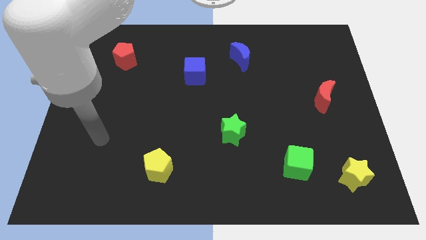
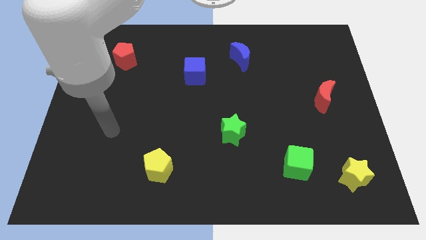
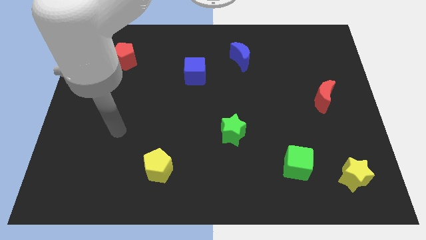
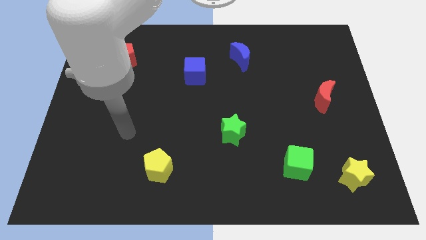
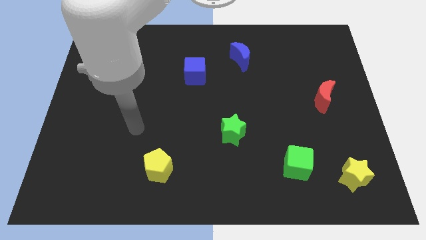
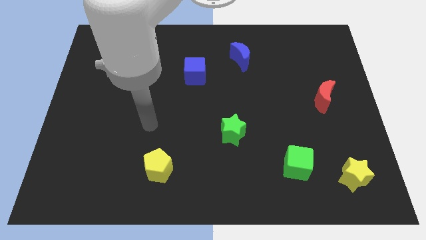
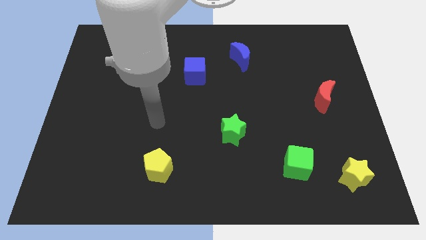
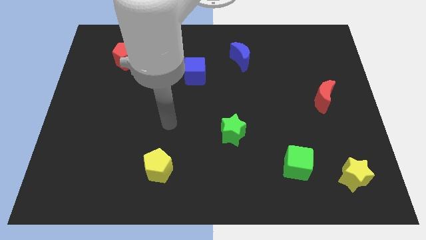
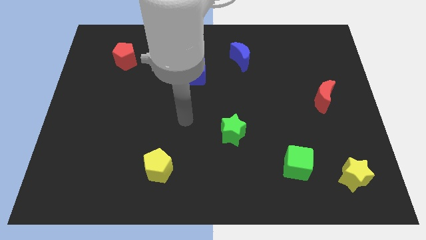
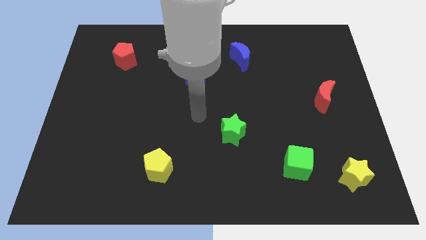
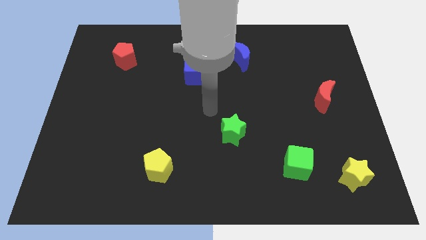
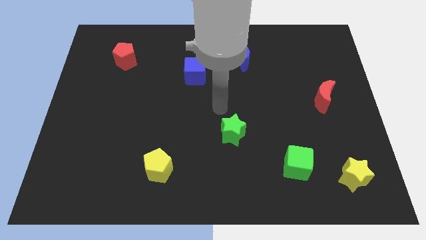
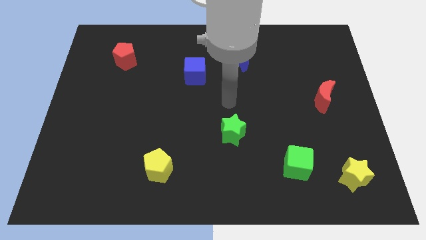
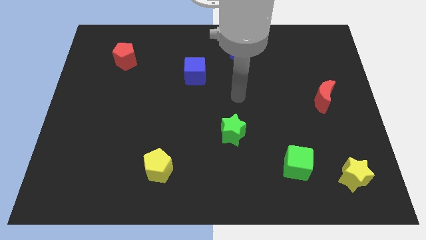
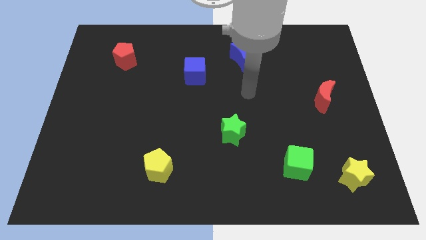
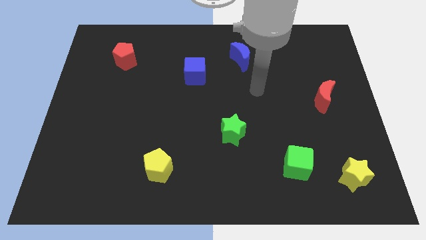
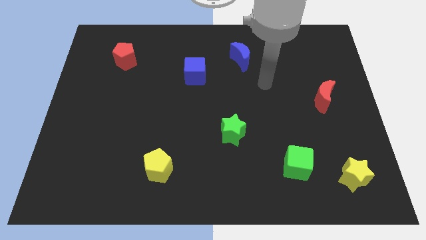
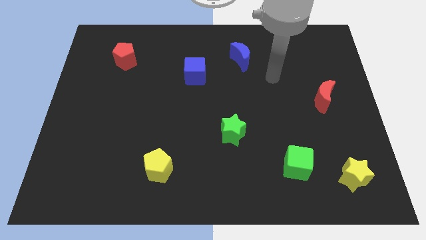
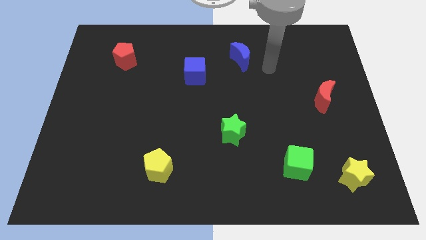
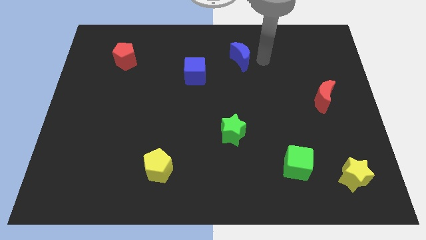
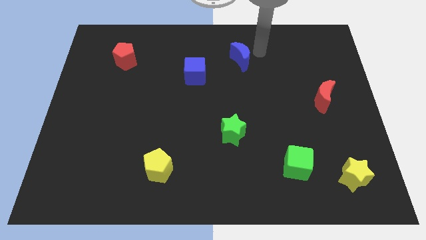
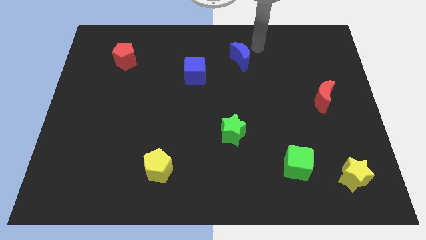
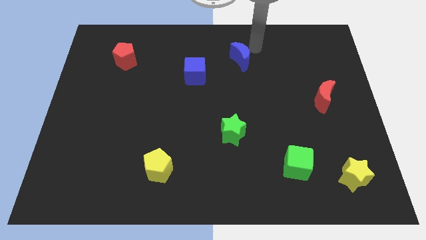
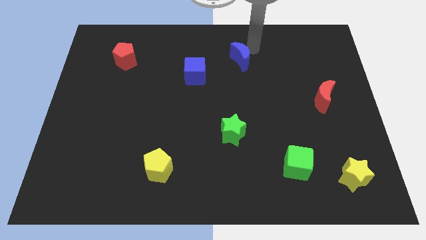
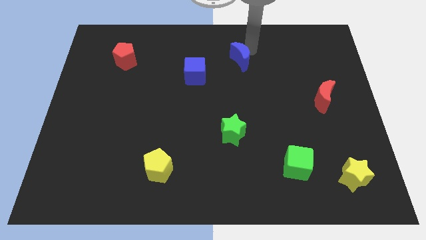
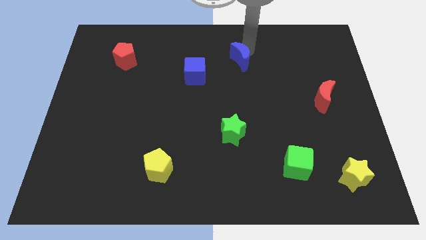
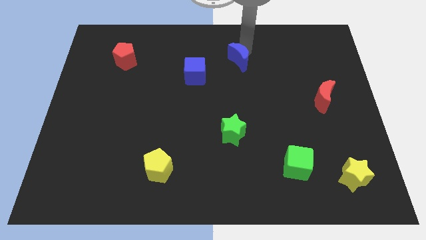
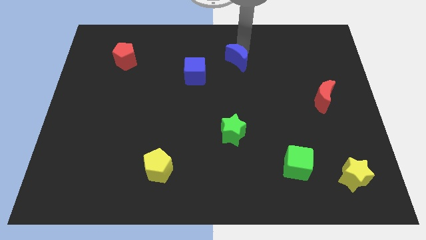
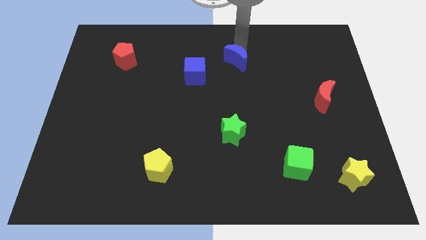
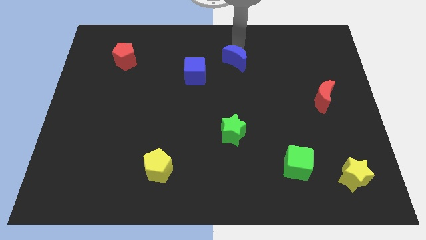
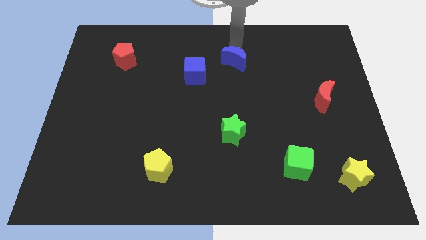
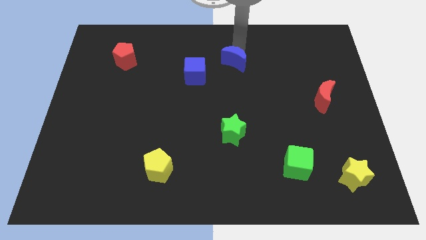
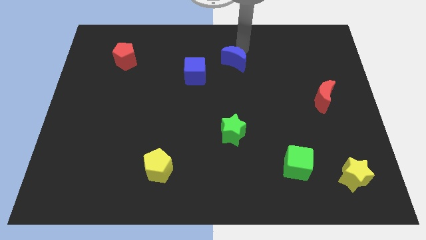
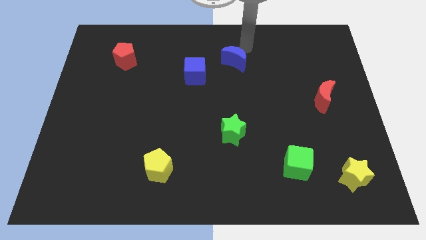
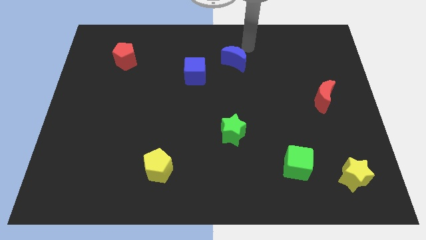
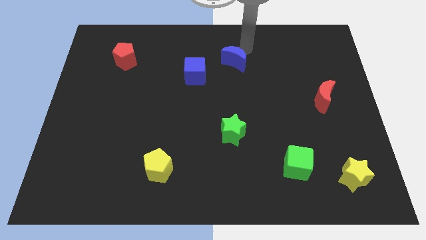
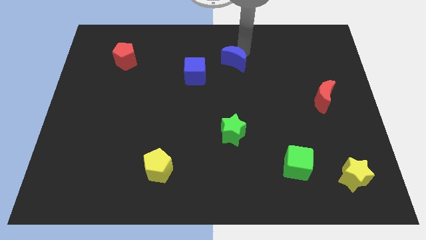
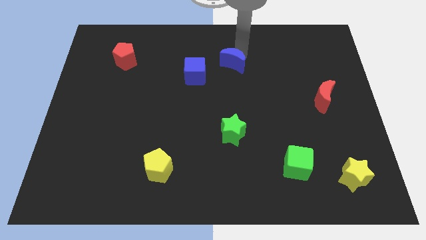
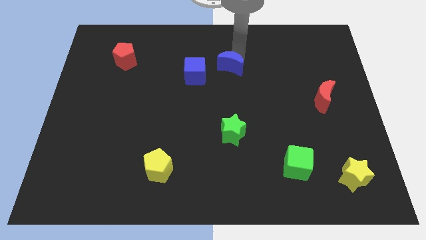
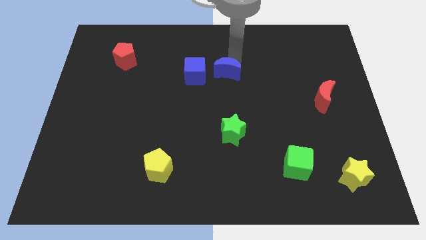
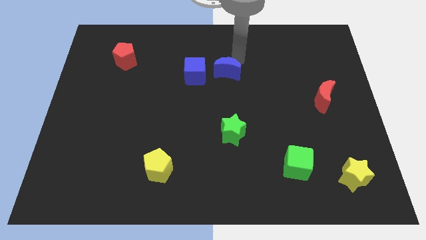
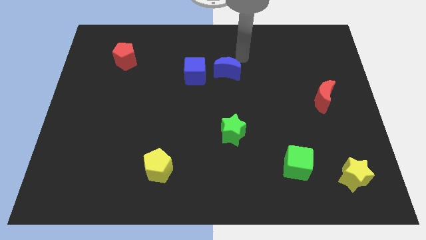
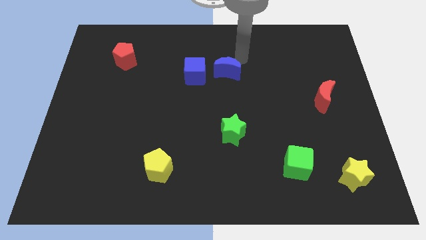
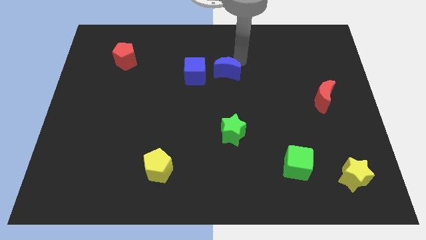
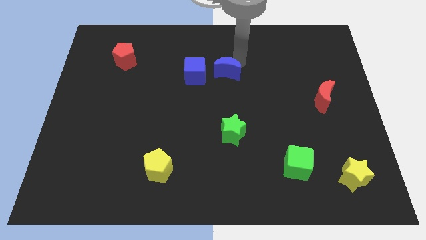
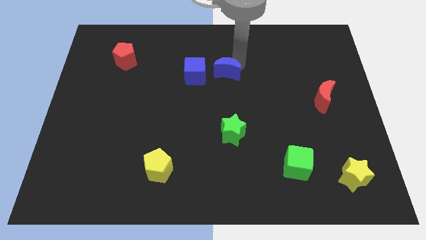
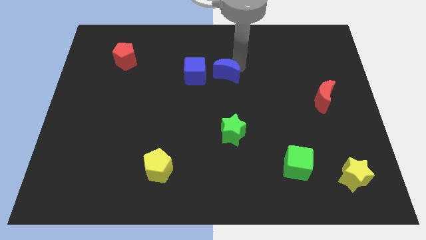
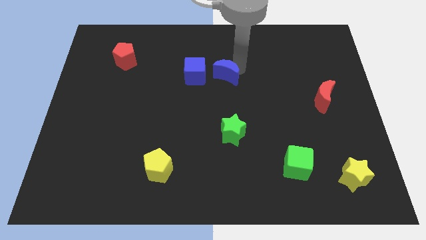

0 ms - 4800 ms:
slide the blue moon somewhat down and left

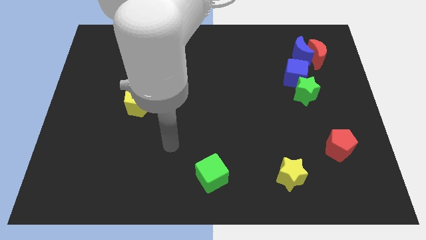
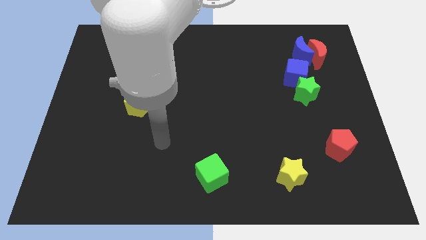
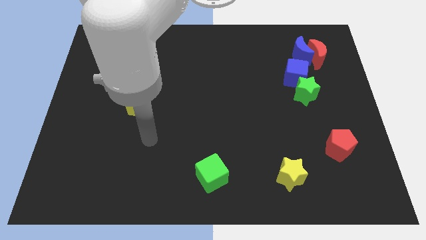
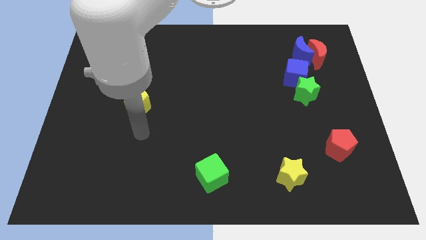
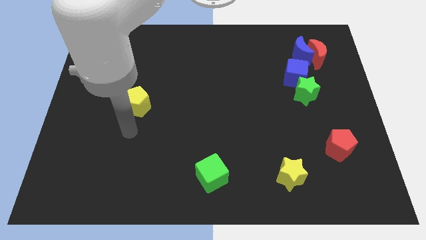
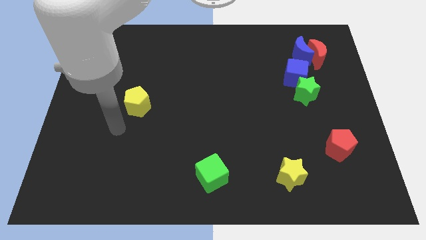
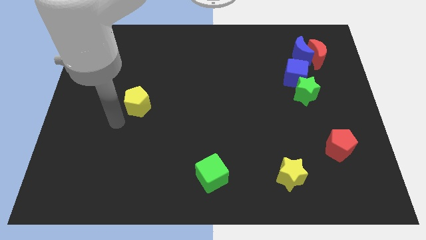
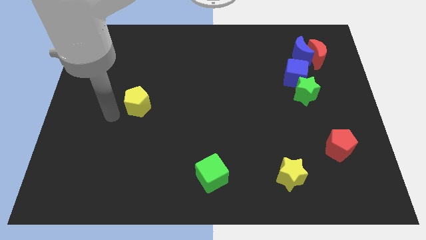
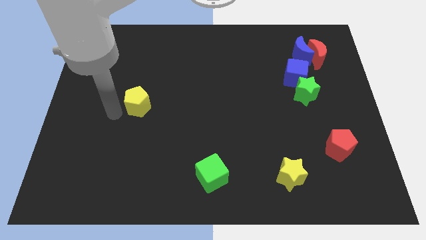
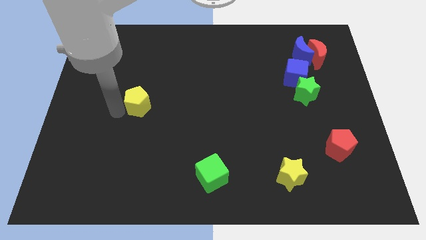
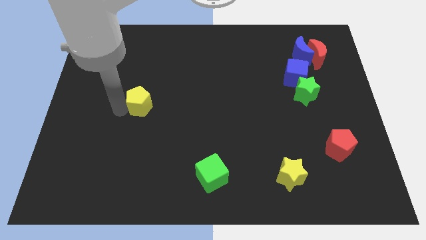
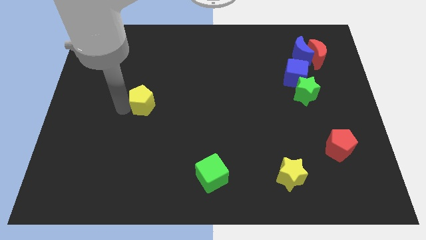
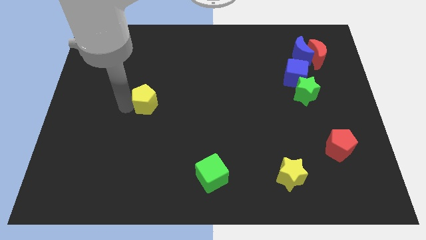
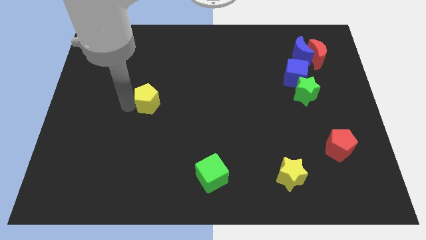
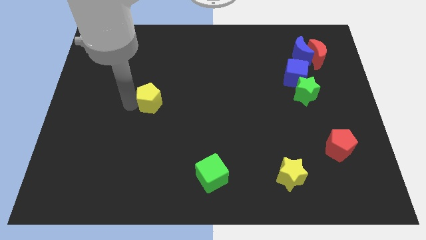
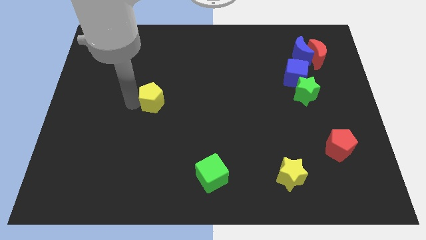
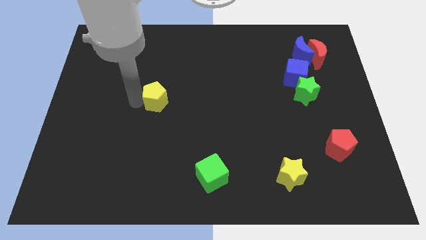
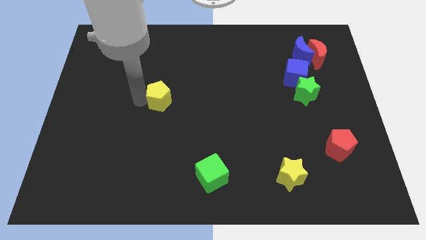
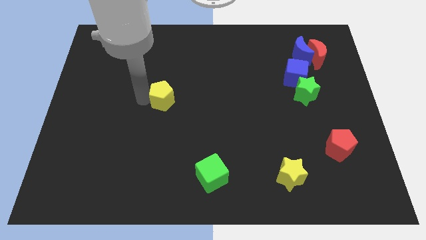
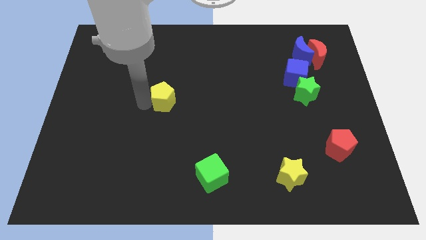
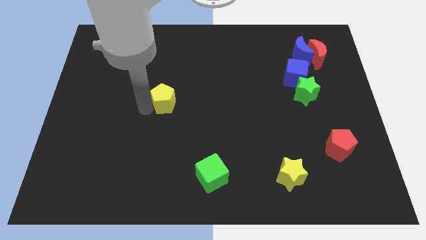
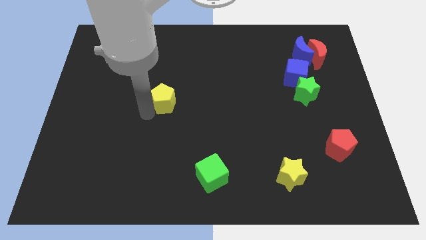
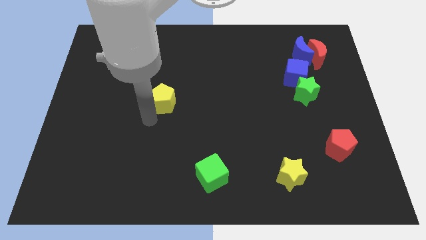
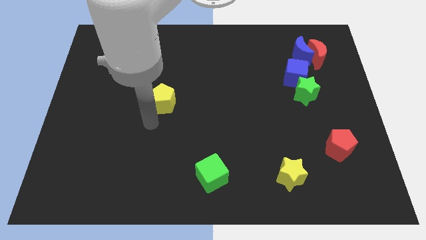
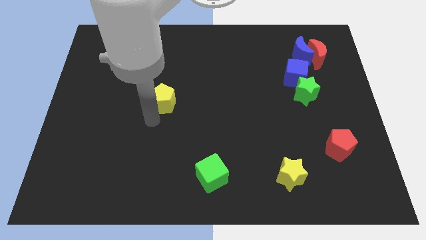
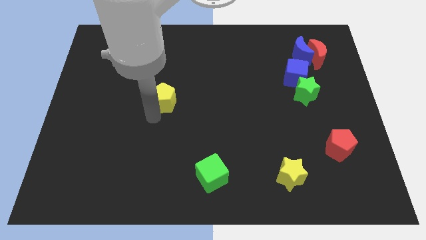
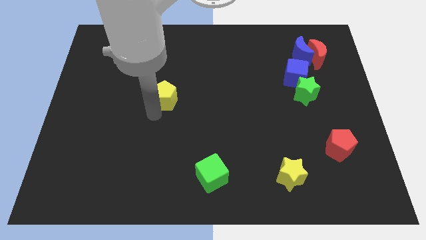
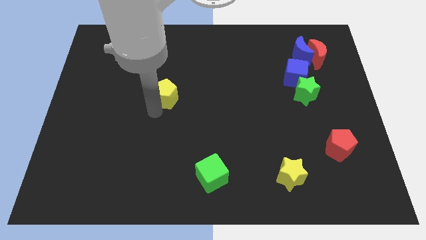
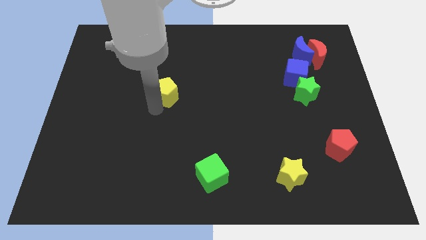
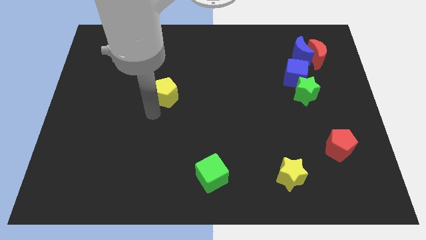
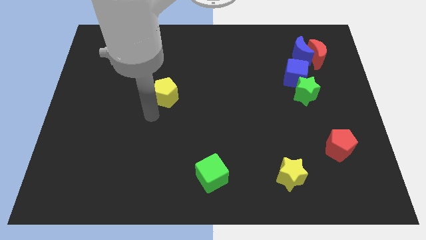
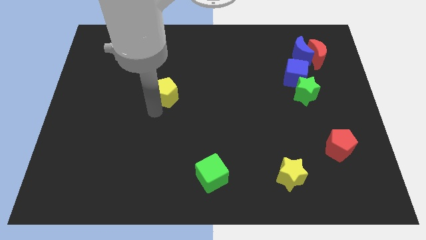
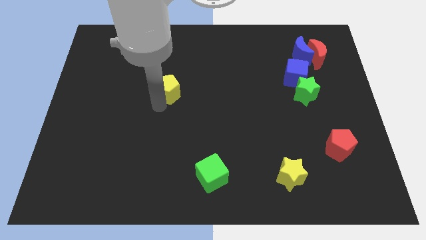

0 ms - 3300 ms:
push the yellow pentagon somewhat diagonally upwards and to the right
